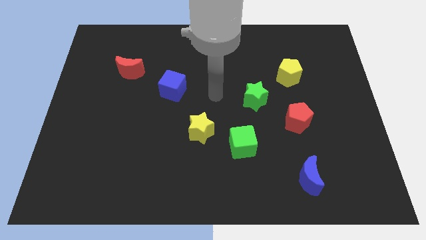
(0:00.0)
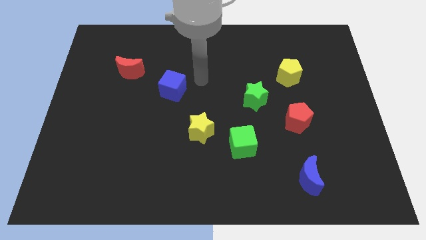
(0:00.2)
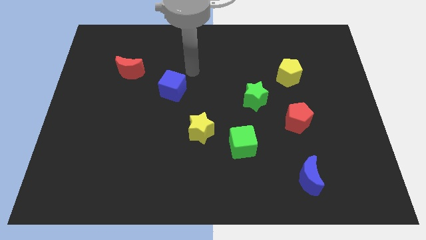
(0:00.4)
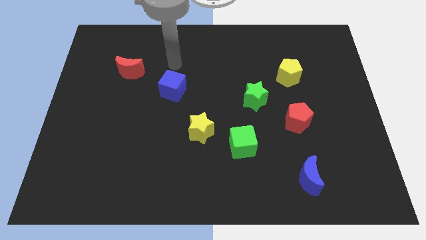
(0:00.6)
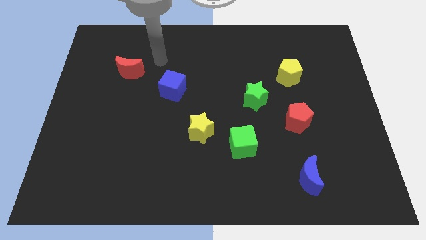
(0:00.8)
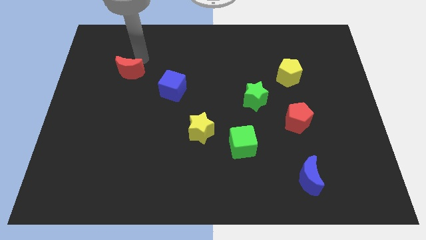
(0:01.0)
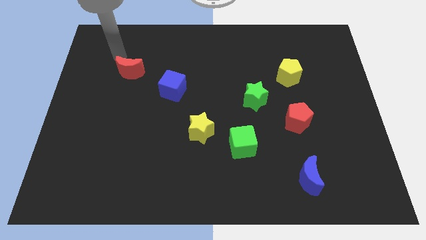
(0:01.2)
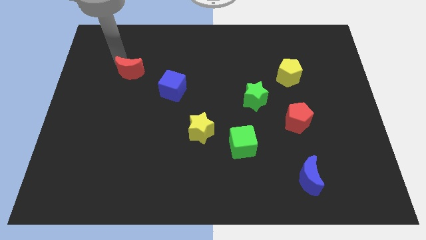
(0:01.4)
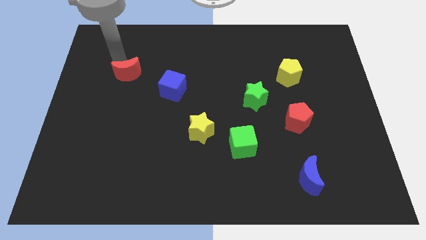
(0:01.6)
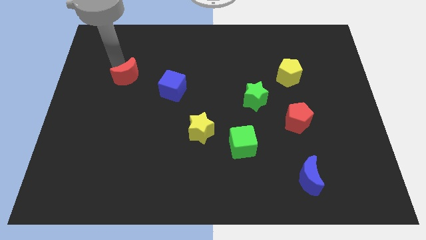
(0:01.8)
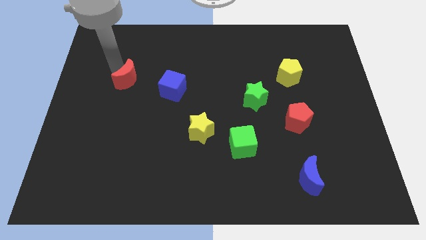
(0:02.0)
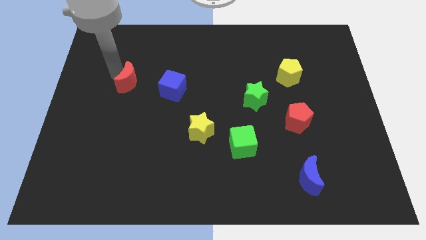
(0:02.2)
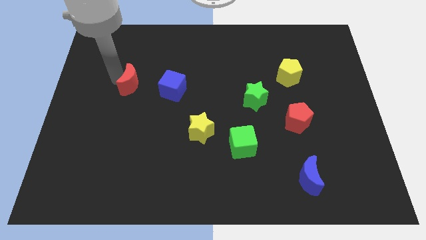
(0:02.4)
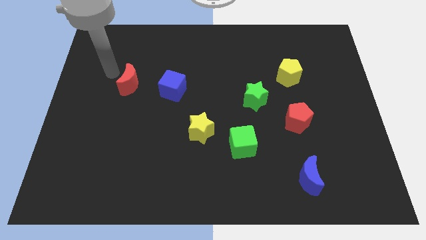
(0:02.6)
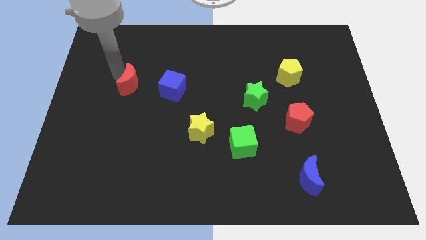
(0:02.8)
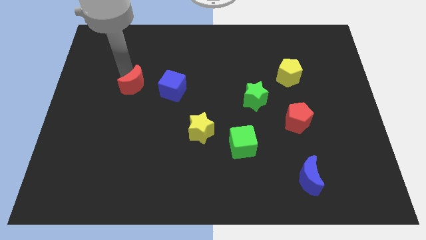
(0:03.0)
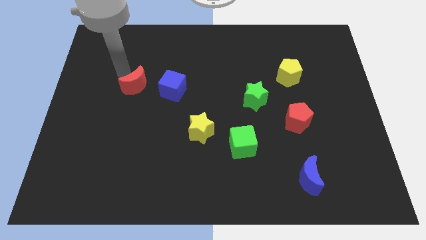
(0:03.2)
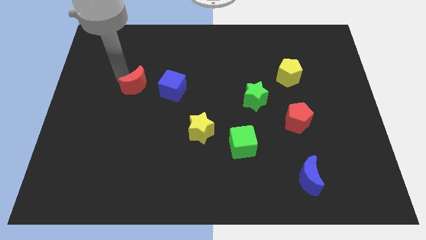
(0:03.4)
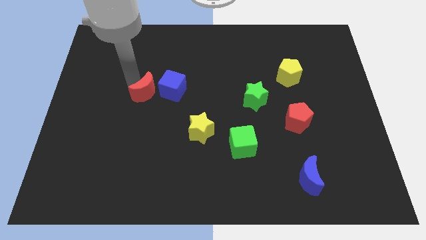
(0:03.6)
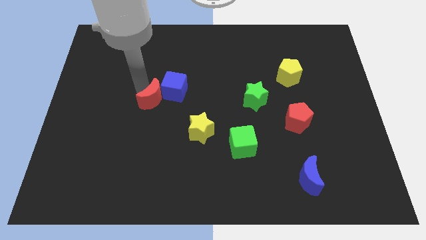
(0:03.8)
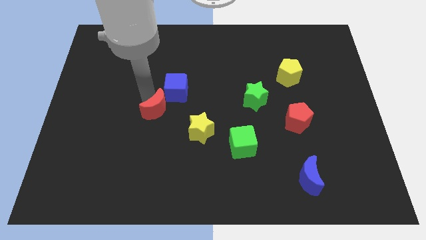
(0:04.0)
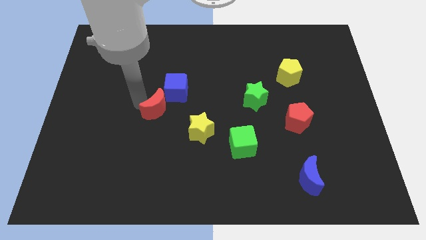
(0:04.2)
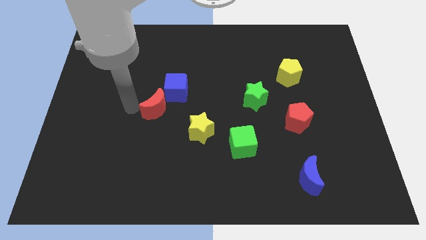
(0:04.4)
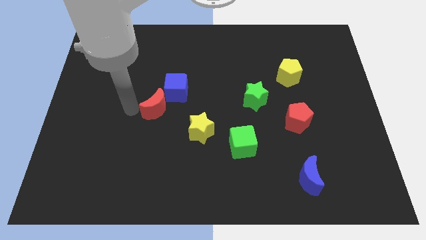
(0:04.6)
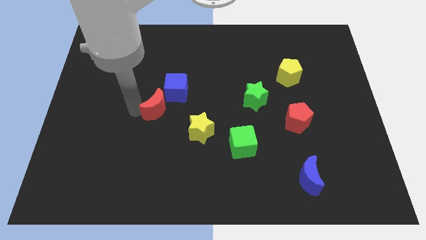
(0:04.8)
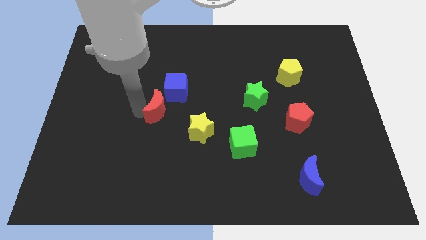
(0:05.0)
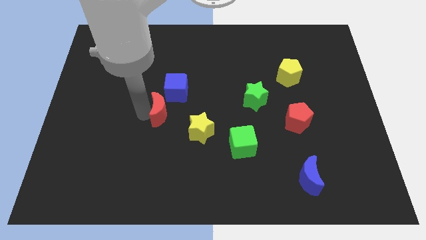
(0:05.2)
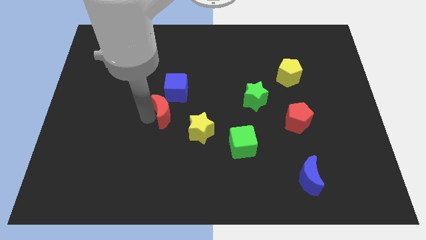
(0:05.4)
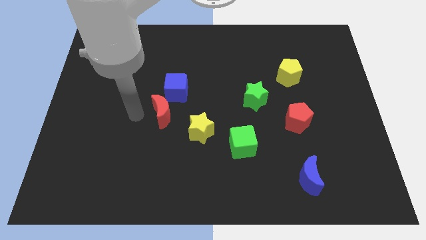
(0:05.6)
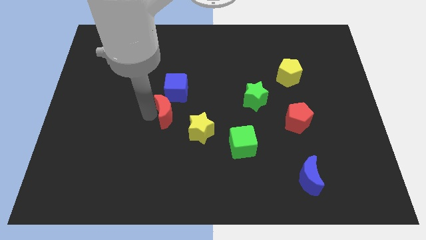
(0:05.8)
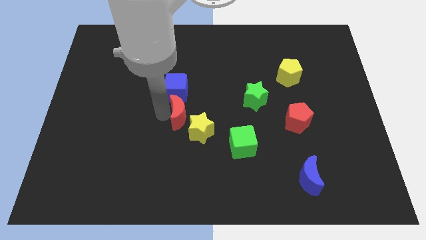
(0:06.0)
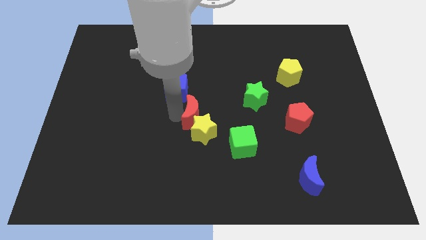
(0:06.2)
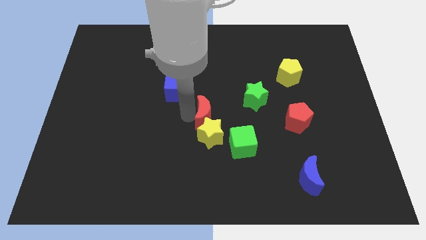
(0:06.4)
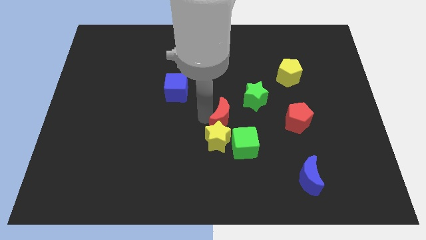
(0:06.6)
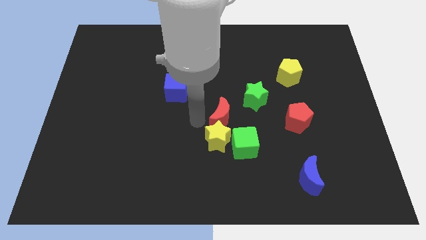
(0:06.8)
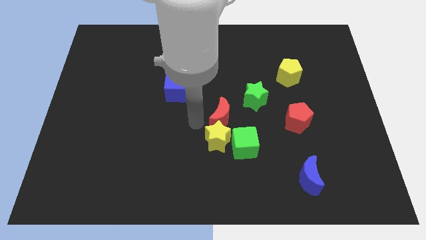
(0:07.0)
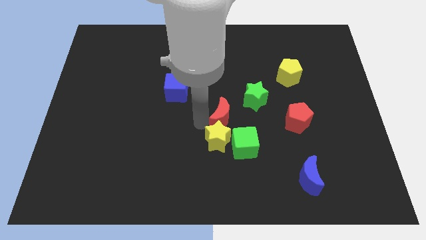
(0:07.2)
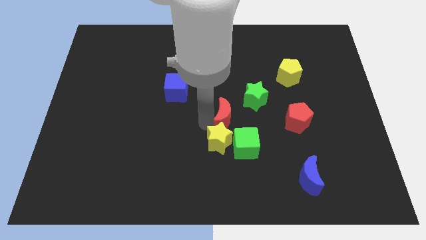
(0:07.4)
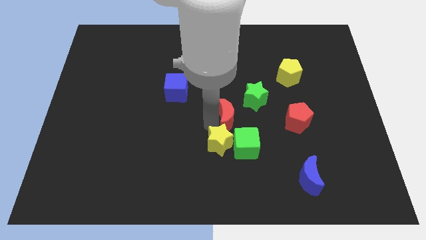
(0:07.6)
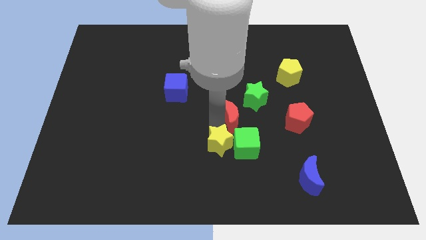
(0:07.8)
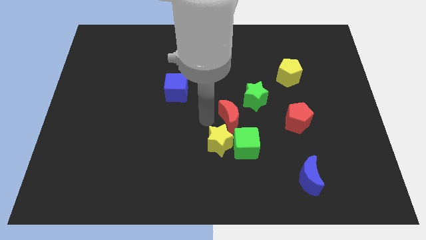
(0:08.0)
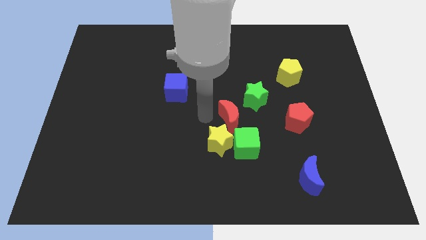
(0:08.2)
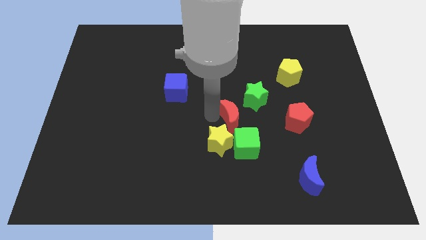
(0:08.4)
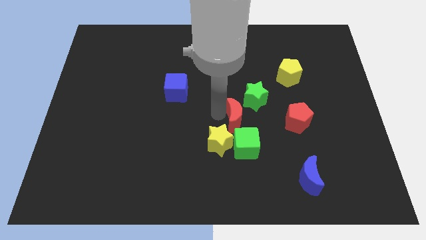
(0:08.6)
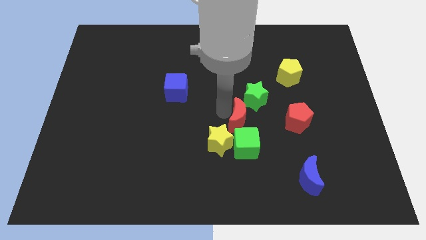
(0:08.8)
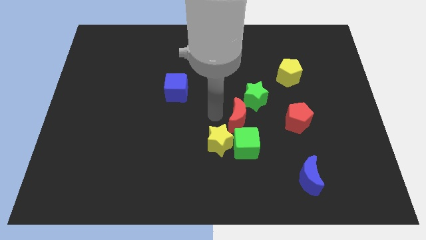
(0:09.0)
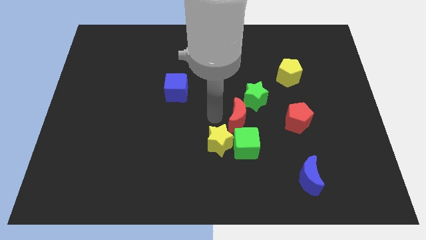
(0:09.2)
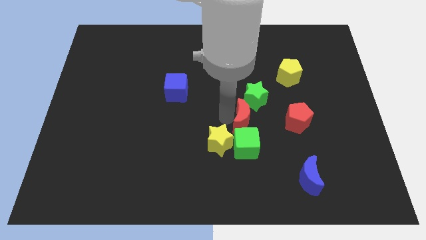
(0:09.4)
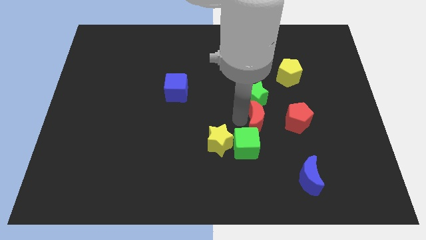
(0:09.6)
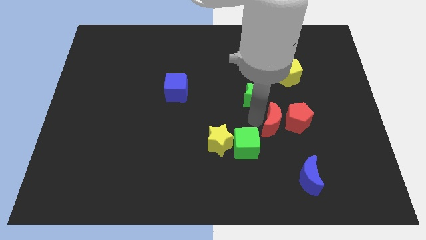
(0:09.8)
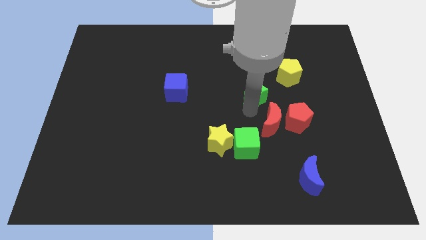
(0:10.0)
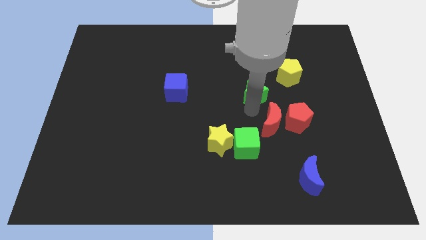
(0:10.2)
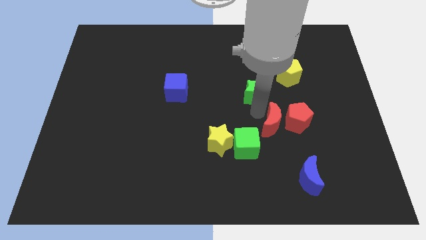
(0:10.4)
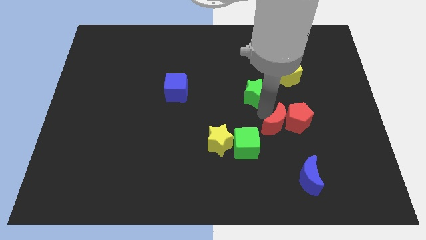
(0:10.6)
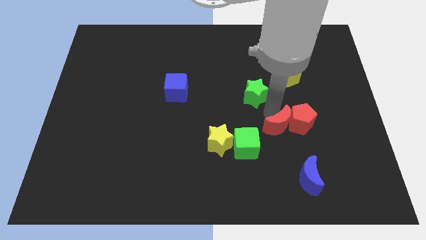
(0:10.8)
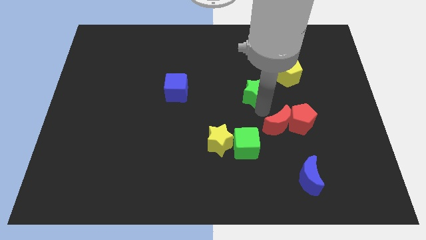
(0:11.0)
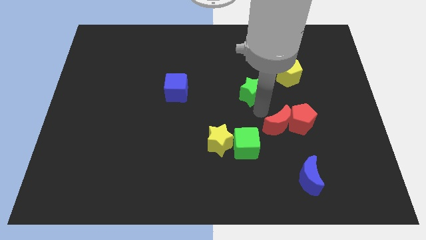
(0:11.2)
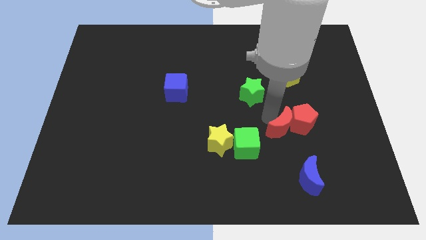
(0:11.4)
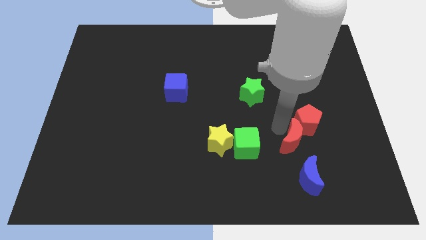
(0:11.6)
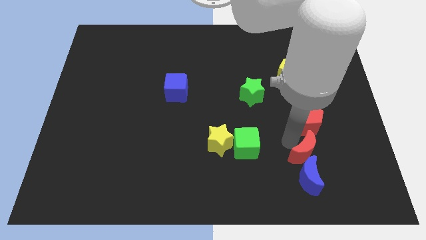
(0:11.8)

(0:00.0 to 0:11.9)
push the red moon to the top right side of the blue moon

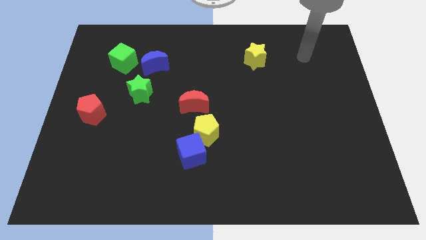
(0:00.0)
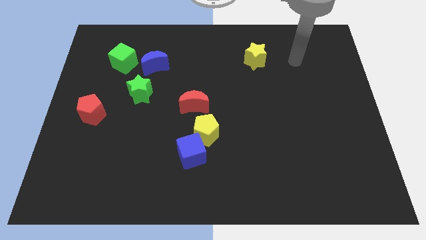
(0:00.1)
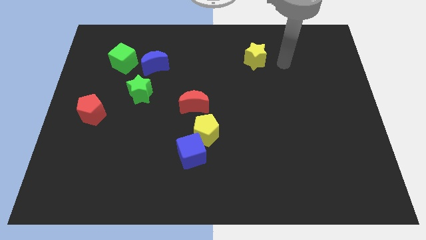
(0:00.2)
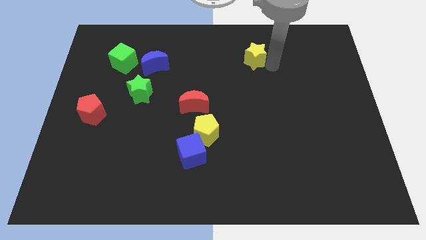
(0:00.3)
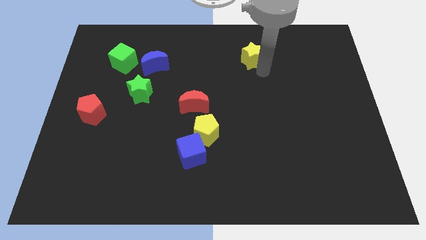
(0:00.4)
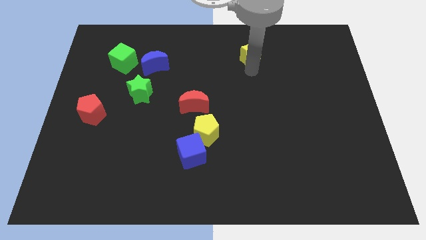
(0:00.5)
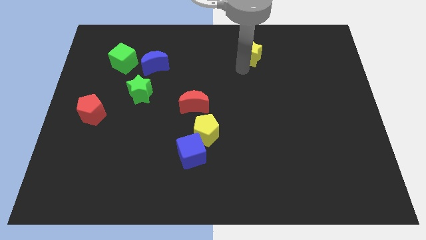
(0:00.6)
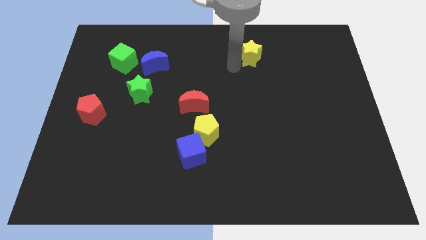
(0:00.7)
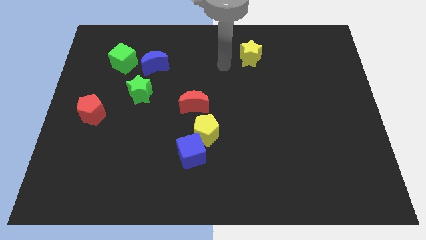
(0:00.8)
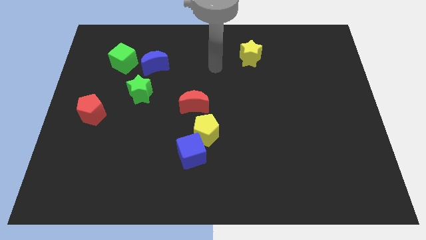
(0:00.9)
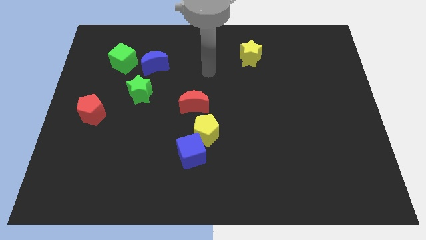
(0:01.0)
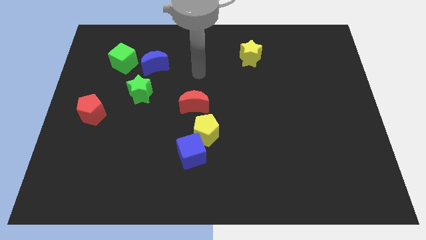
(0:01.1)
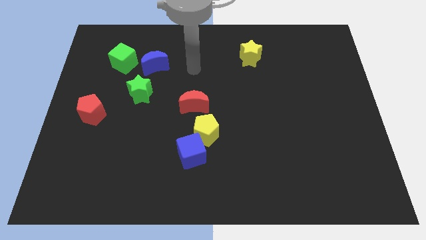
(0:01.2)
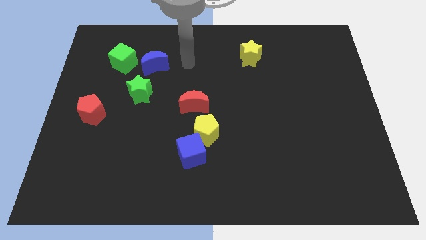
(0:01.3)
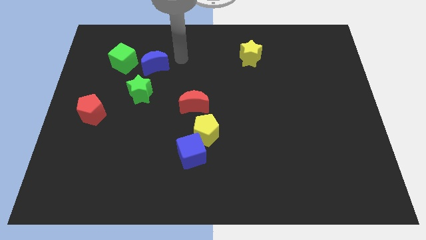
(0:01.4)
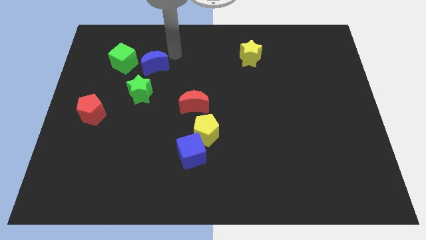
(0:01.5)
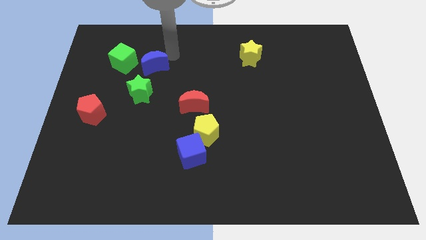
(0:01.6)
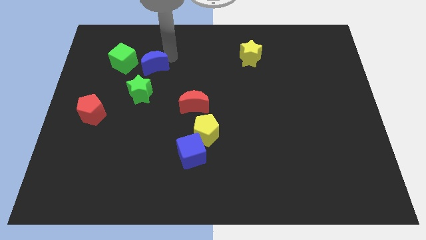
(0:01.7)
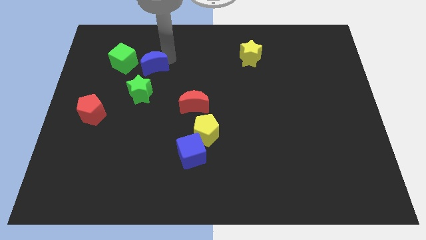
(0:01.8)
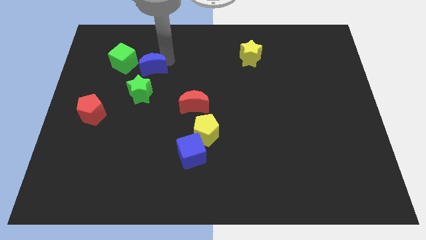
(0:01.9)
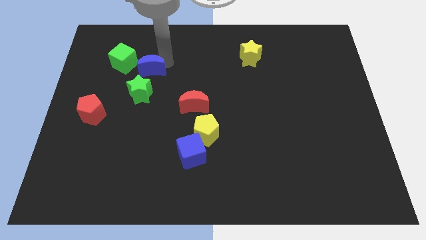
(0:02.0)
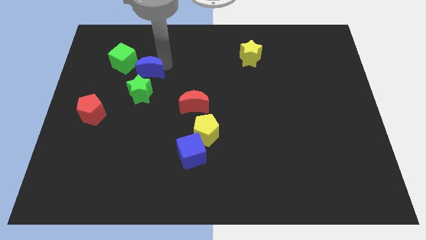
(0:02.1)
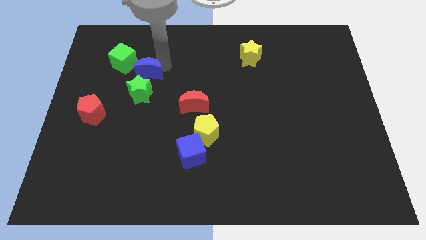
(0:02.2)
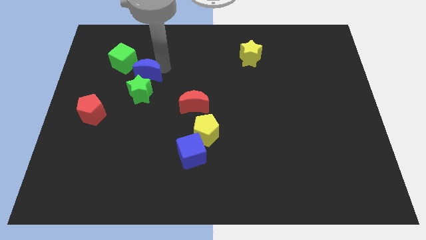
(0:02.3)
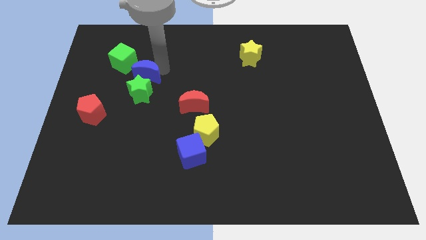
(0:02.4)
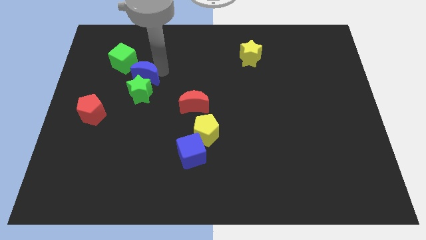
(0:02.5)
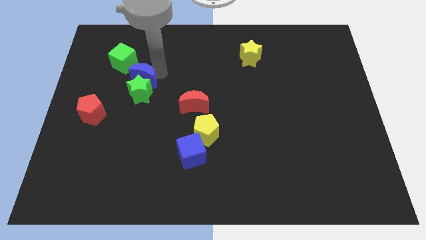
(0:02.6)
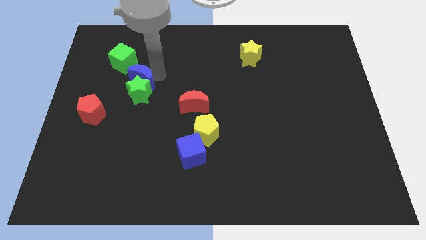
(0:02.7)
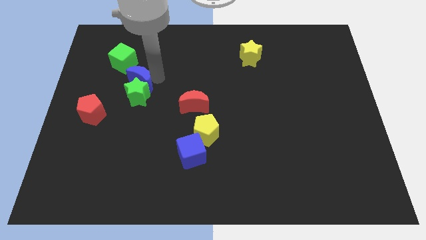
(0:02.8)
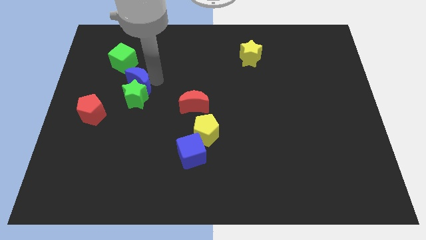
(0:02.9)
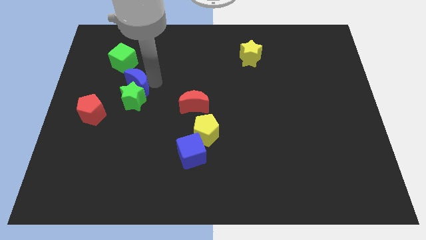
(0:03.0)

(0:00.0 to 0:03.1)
put the blue moon to the bottom side of the green cube
